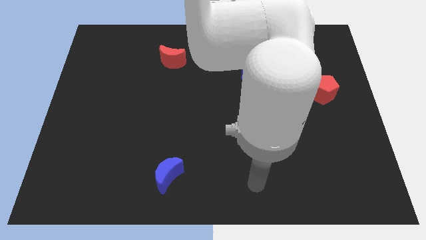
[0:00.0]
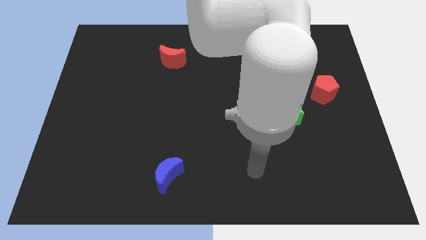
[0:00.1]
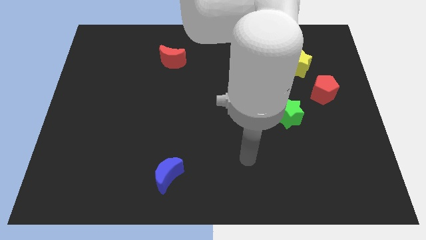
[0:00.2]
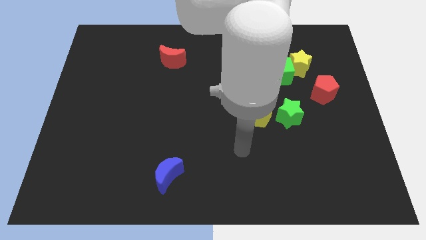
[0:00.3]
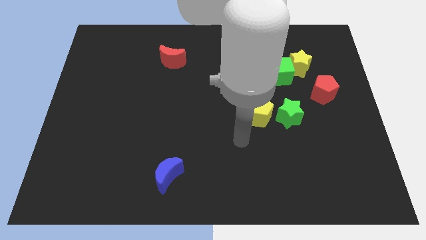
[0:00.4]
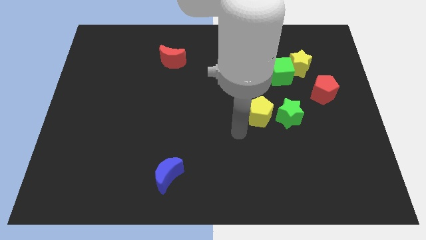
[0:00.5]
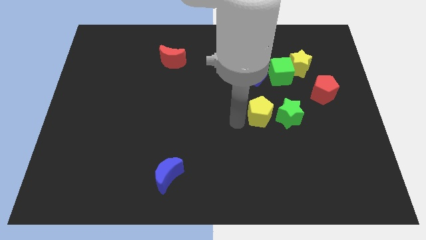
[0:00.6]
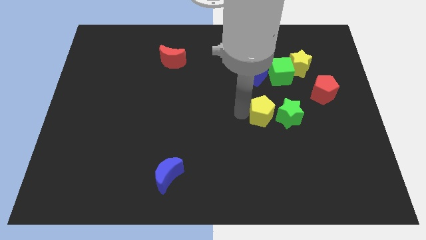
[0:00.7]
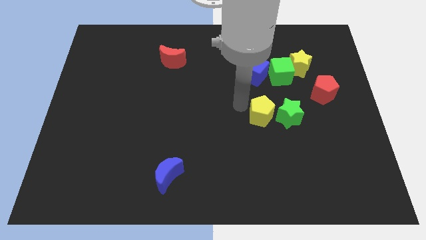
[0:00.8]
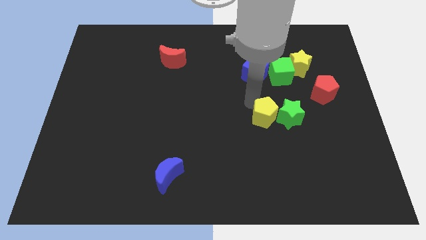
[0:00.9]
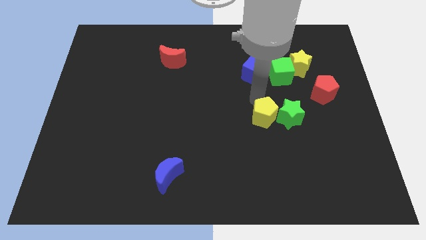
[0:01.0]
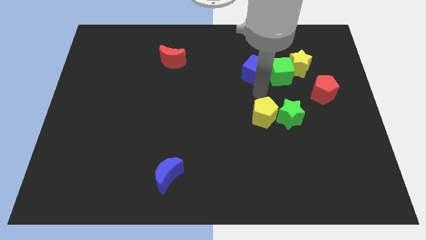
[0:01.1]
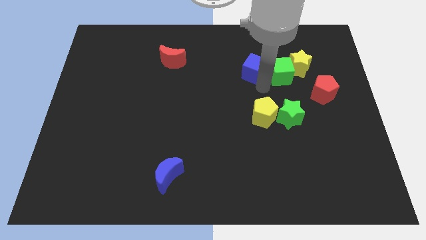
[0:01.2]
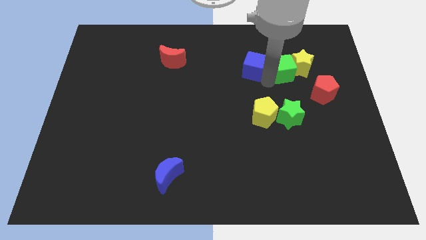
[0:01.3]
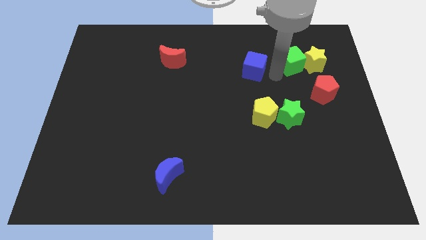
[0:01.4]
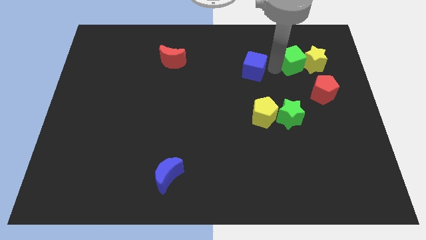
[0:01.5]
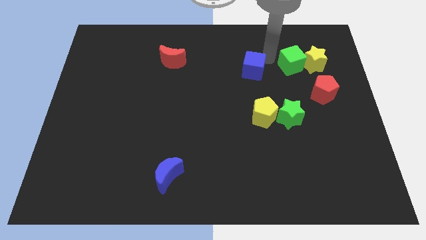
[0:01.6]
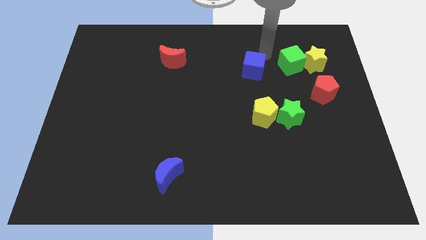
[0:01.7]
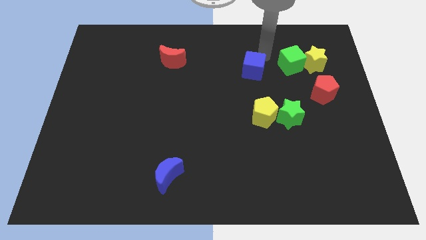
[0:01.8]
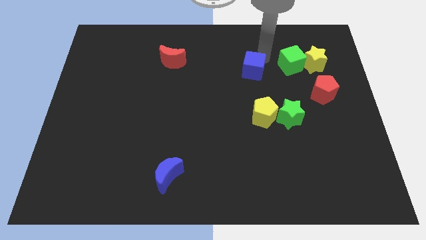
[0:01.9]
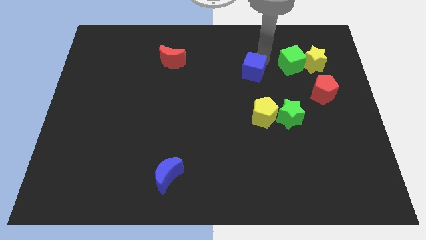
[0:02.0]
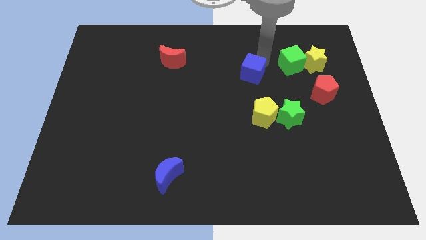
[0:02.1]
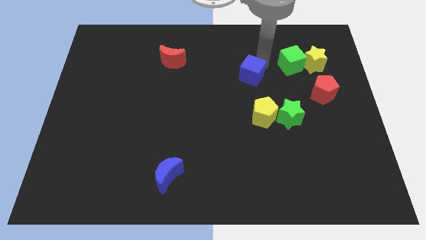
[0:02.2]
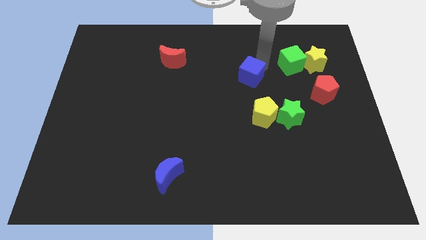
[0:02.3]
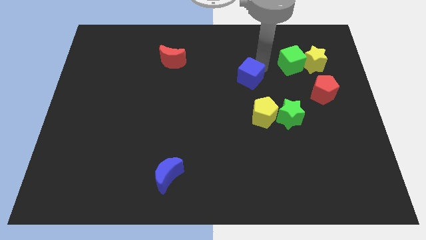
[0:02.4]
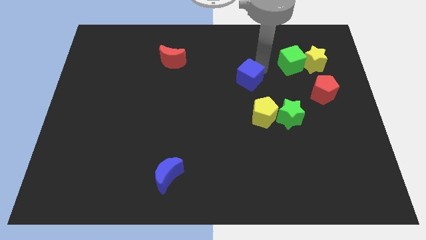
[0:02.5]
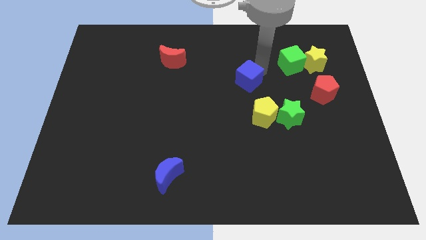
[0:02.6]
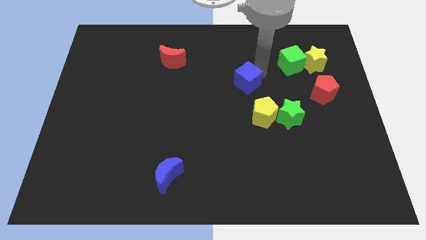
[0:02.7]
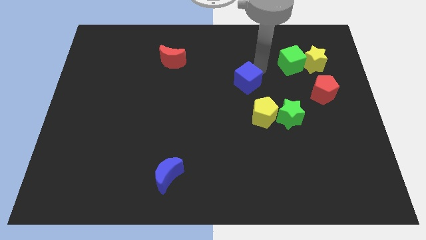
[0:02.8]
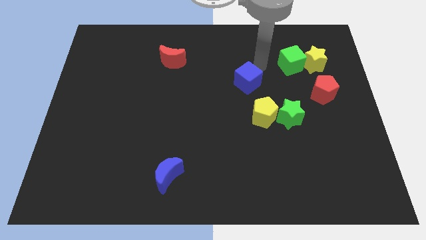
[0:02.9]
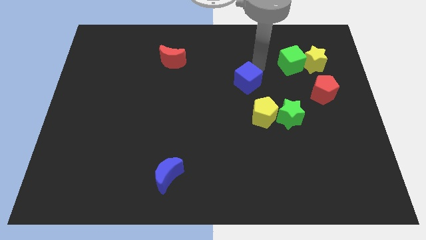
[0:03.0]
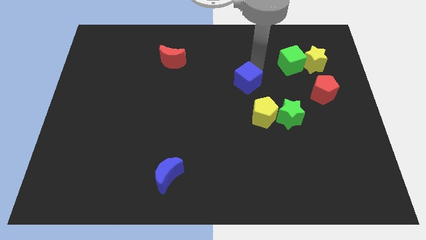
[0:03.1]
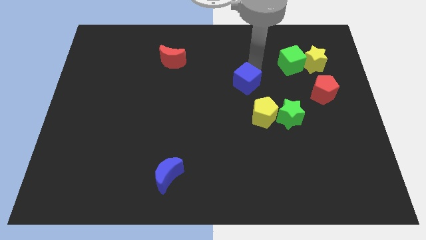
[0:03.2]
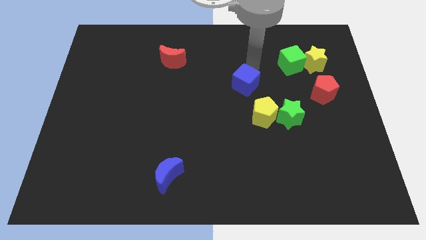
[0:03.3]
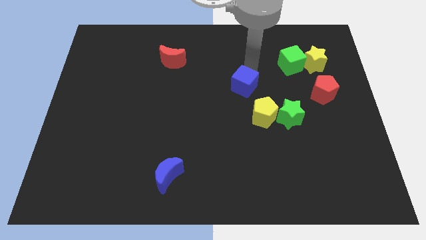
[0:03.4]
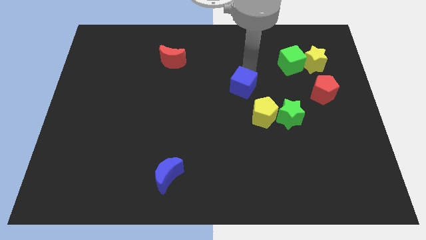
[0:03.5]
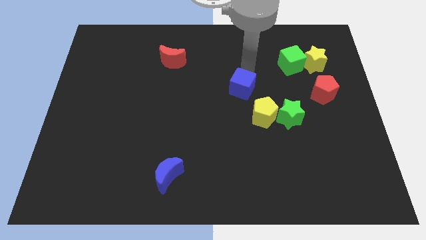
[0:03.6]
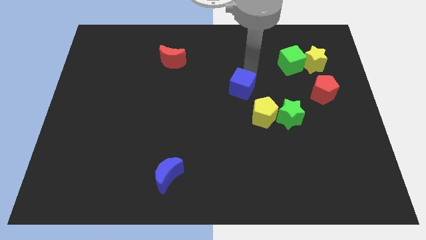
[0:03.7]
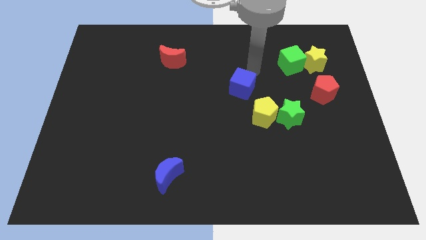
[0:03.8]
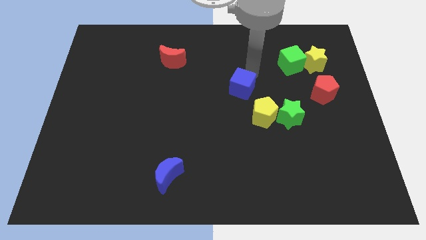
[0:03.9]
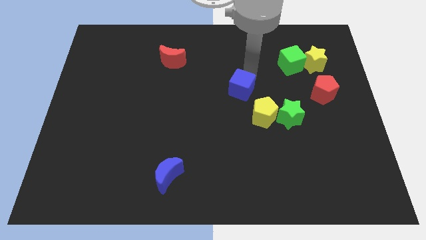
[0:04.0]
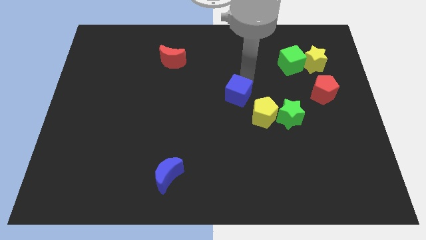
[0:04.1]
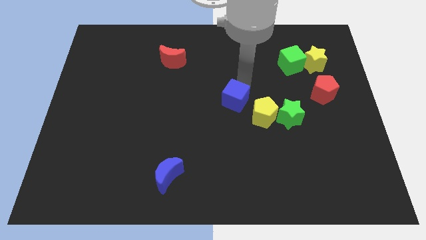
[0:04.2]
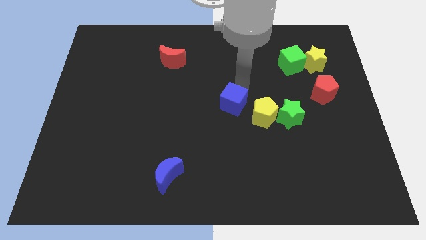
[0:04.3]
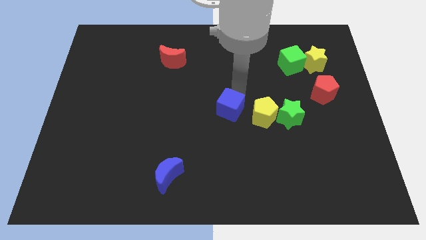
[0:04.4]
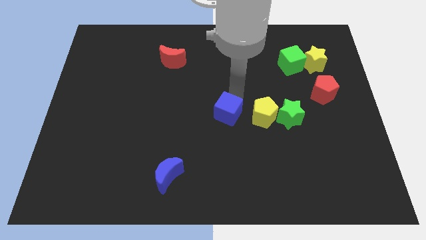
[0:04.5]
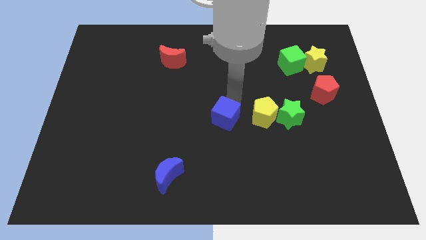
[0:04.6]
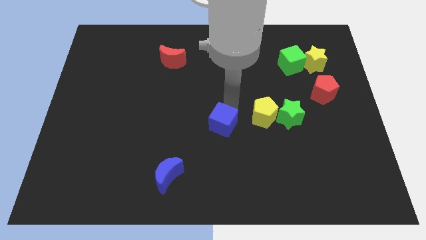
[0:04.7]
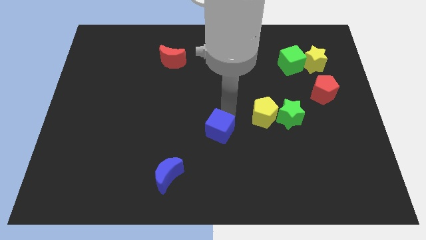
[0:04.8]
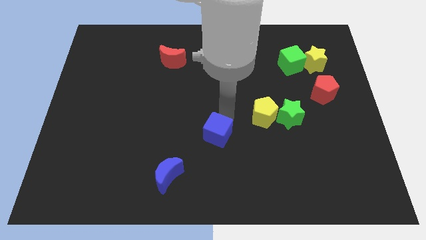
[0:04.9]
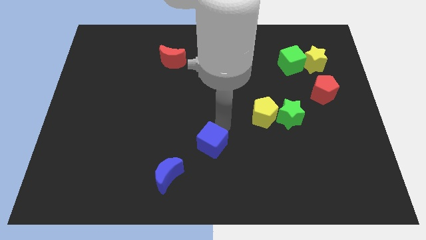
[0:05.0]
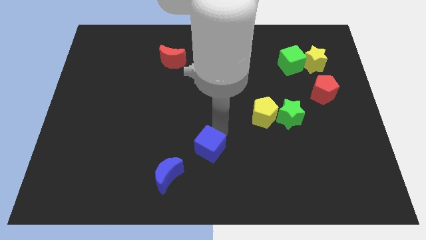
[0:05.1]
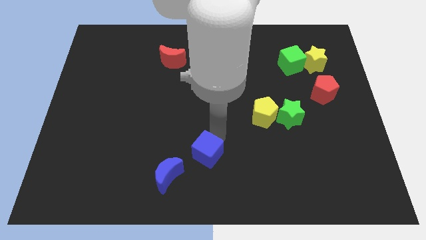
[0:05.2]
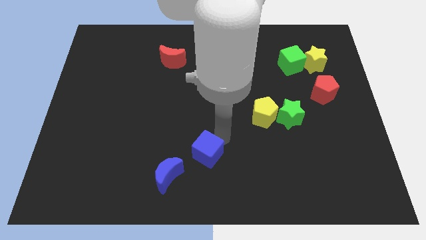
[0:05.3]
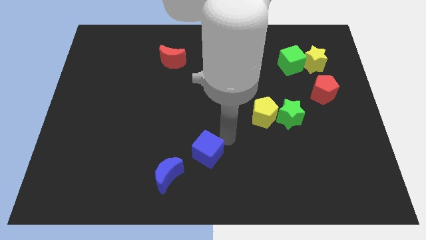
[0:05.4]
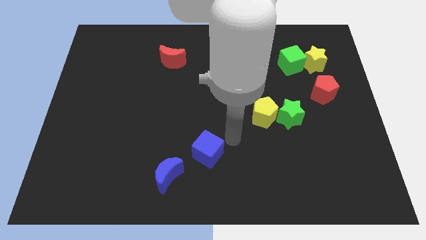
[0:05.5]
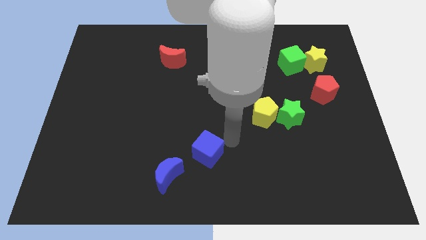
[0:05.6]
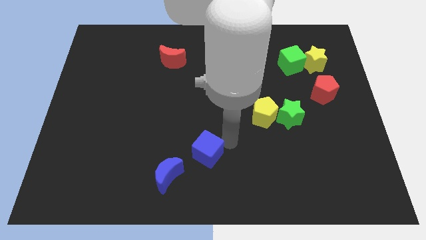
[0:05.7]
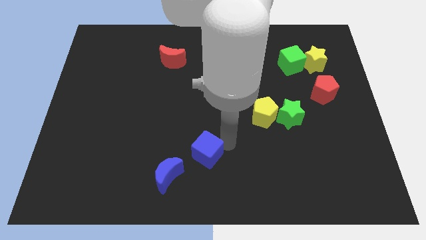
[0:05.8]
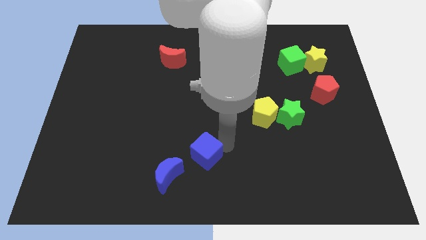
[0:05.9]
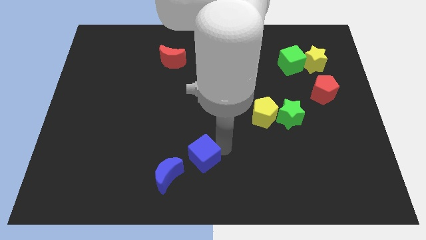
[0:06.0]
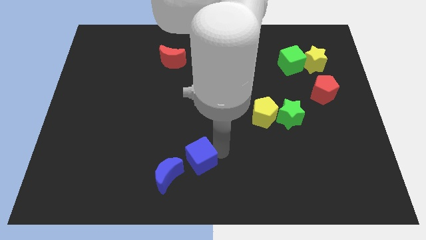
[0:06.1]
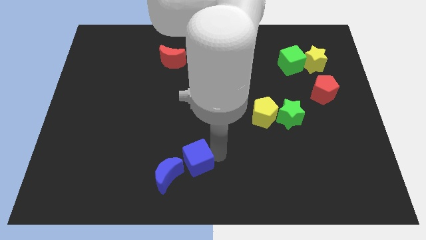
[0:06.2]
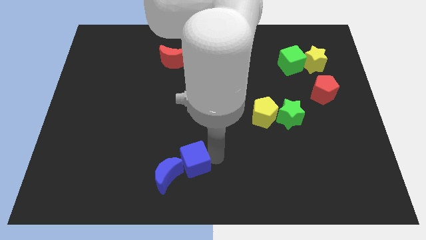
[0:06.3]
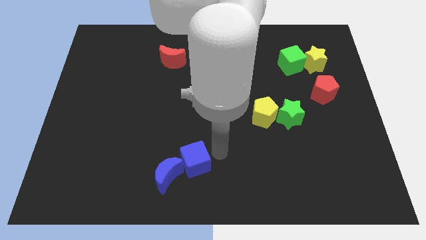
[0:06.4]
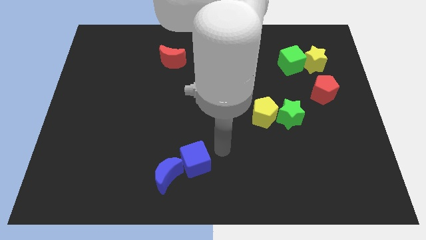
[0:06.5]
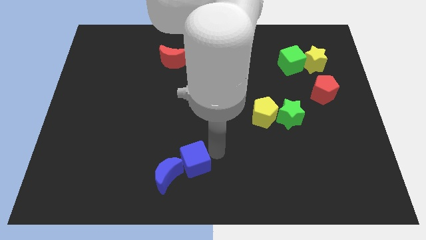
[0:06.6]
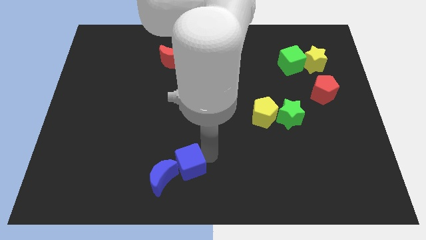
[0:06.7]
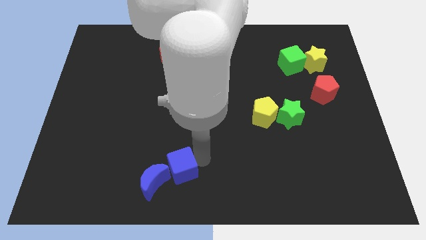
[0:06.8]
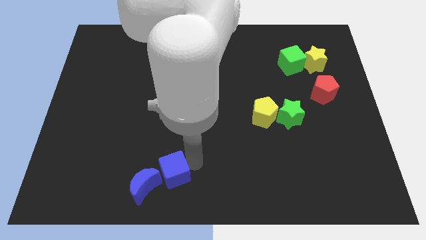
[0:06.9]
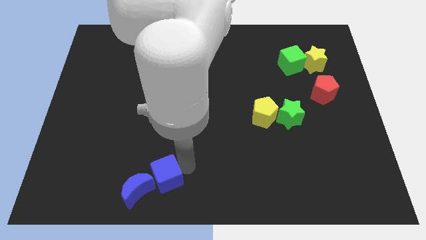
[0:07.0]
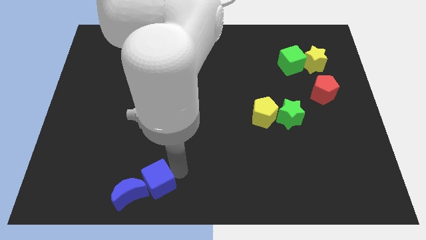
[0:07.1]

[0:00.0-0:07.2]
move the blue cube towards the blue moon

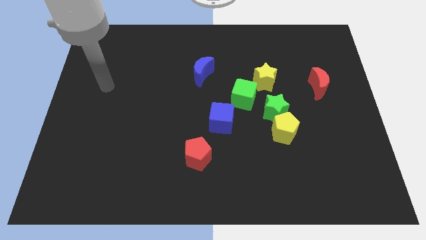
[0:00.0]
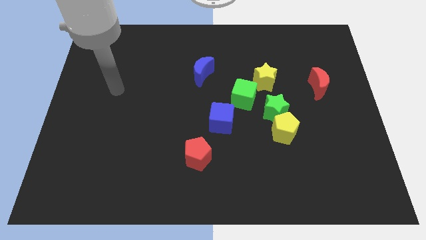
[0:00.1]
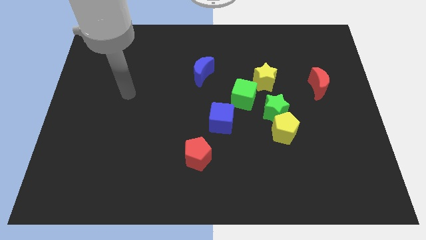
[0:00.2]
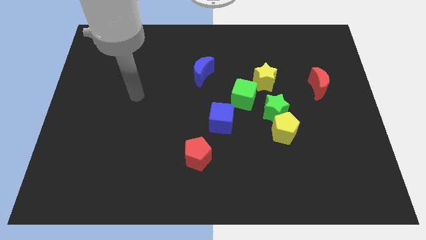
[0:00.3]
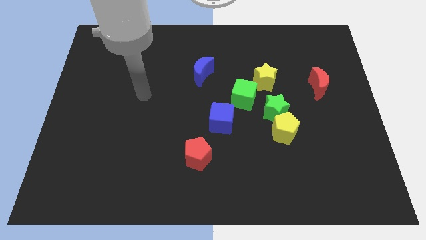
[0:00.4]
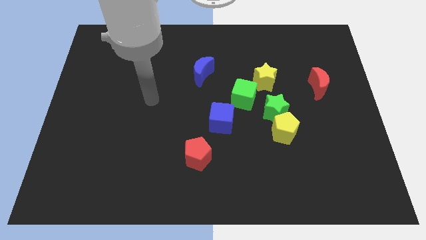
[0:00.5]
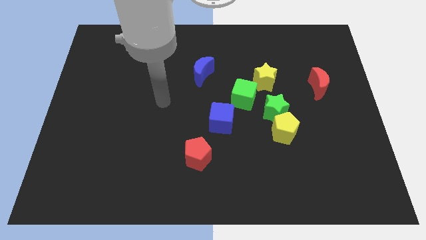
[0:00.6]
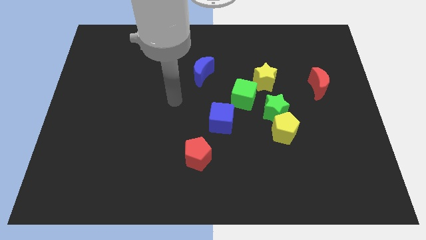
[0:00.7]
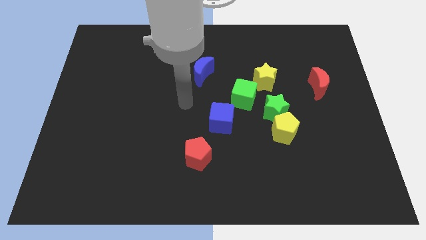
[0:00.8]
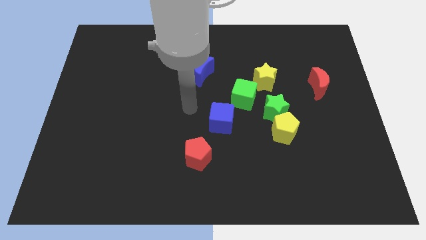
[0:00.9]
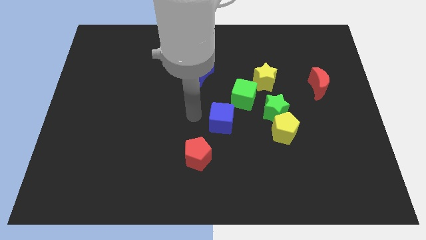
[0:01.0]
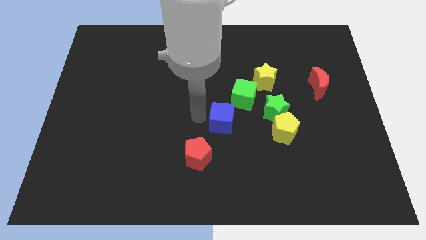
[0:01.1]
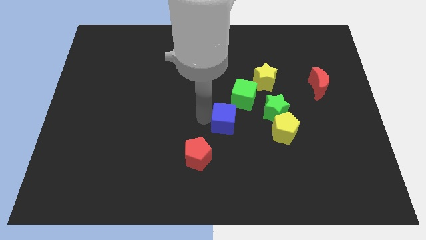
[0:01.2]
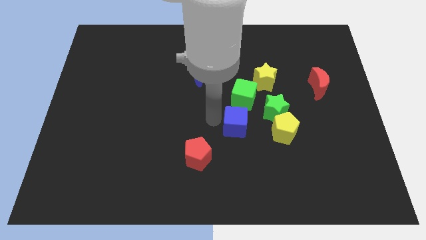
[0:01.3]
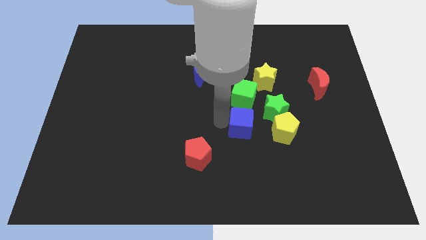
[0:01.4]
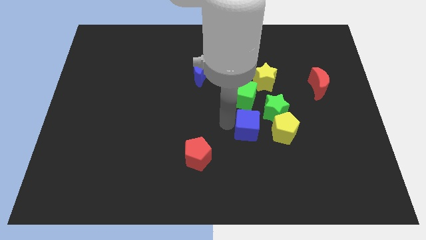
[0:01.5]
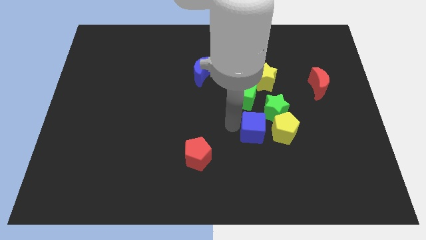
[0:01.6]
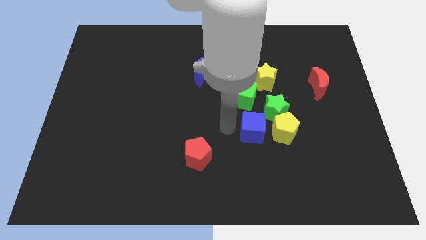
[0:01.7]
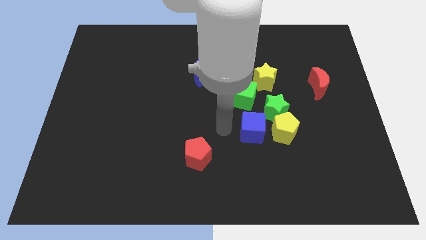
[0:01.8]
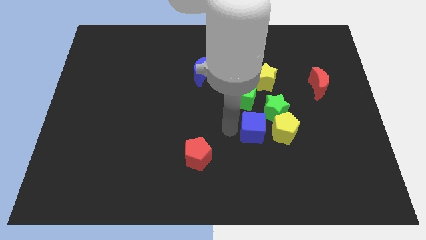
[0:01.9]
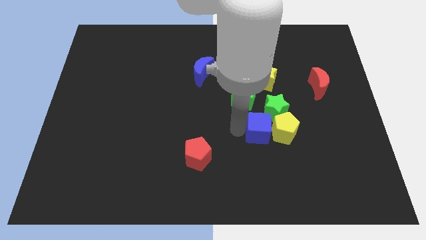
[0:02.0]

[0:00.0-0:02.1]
slide the blue cube towards the yellow pentagon
